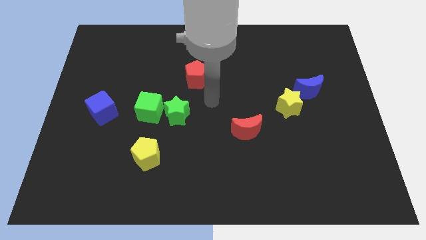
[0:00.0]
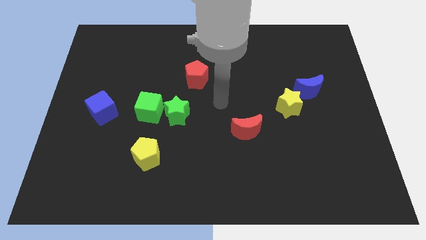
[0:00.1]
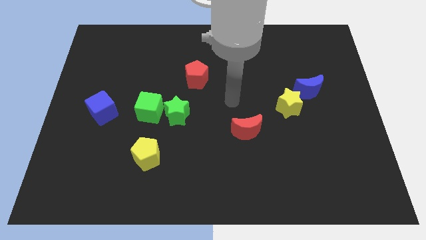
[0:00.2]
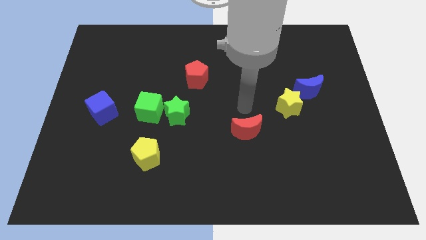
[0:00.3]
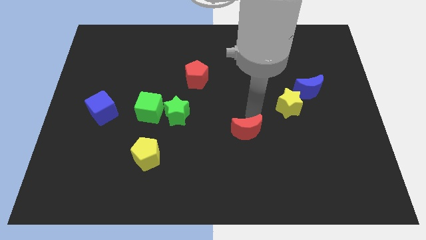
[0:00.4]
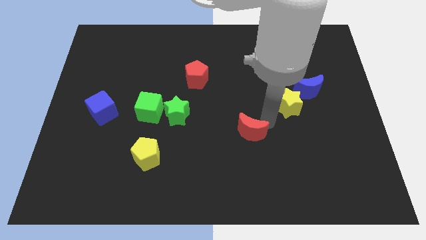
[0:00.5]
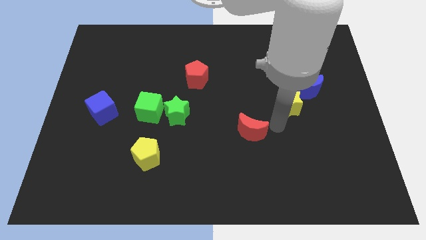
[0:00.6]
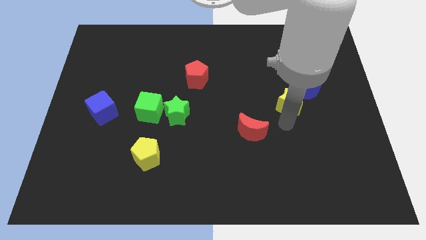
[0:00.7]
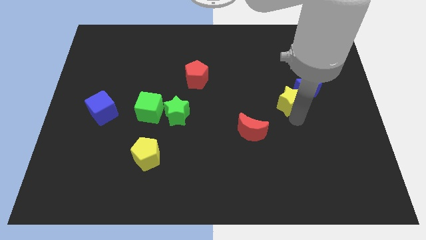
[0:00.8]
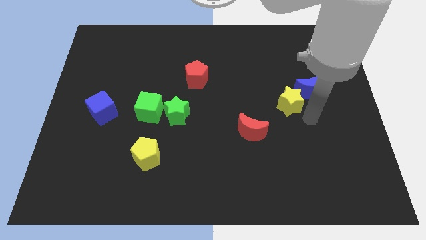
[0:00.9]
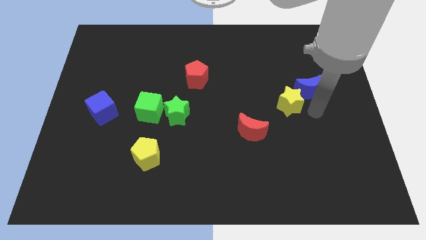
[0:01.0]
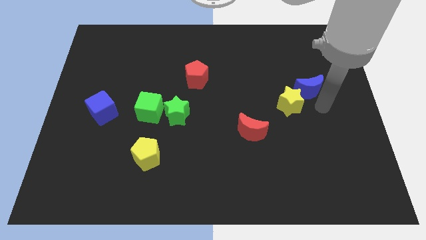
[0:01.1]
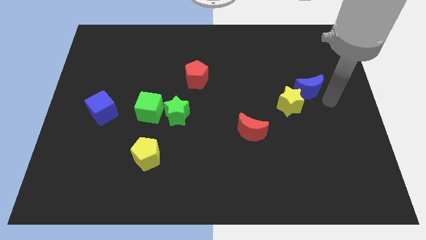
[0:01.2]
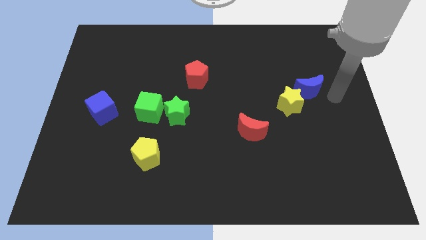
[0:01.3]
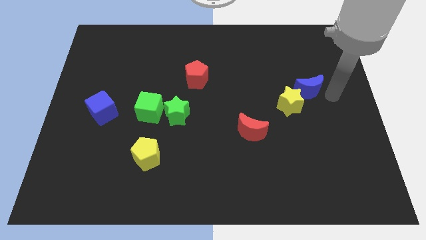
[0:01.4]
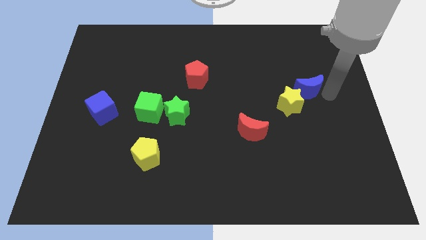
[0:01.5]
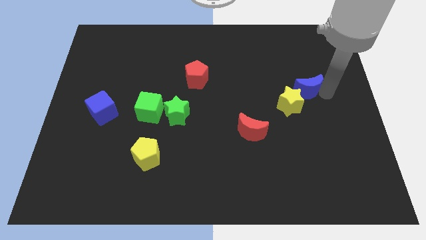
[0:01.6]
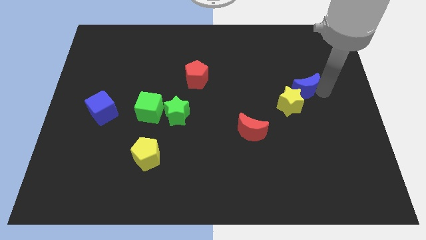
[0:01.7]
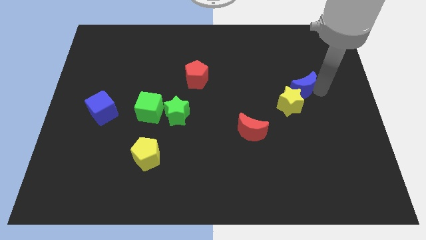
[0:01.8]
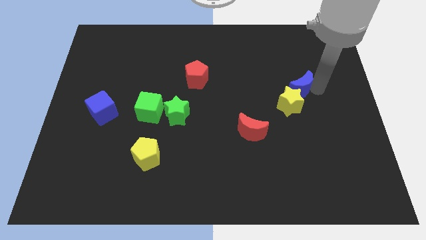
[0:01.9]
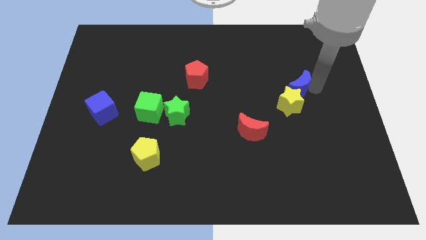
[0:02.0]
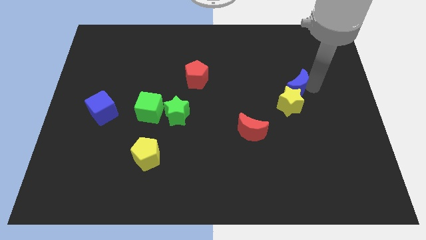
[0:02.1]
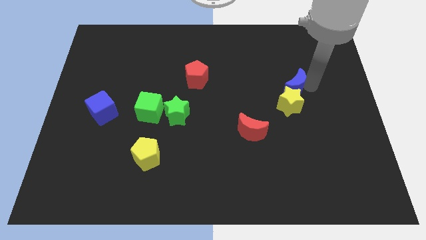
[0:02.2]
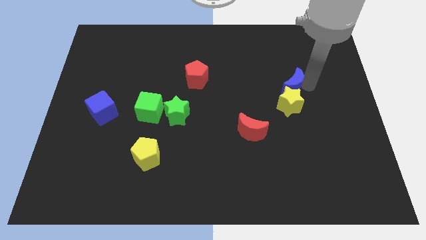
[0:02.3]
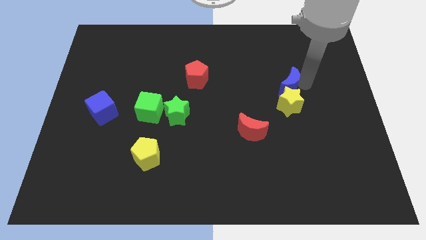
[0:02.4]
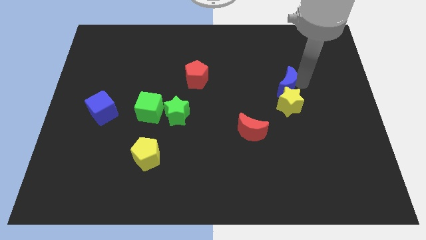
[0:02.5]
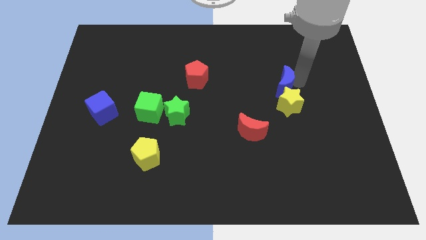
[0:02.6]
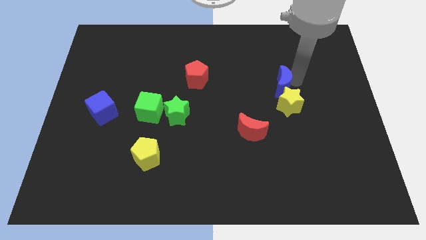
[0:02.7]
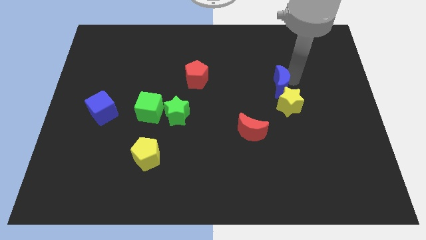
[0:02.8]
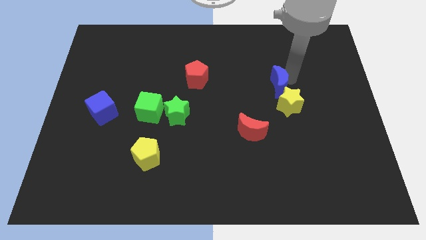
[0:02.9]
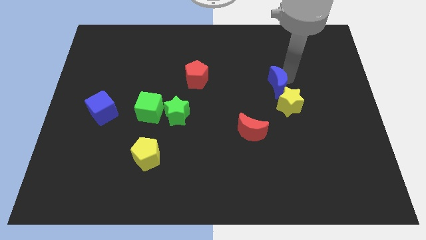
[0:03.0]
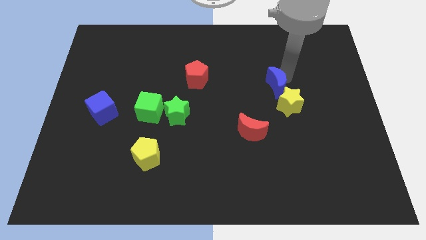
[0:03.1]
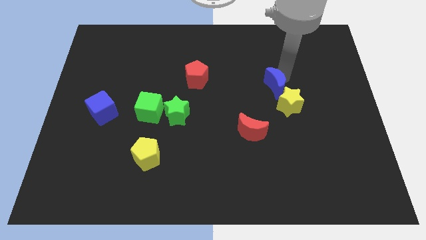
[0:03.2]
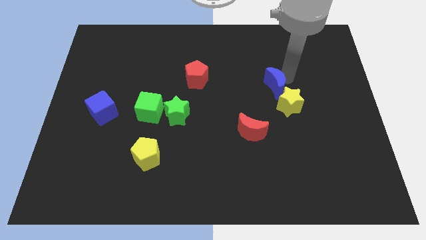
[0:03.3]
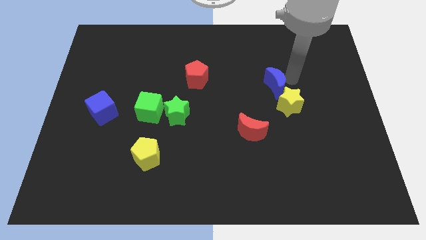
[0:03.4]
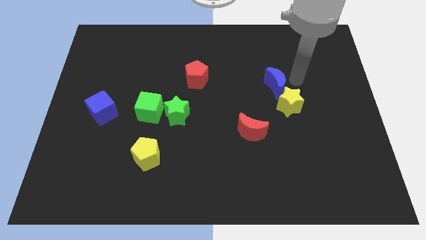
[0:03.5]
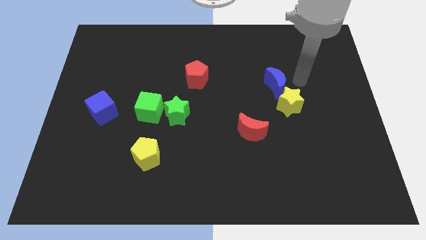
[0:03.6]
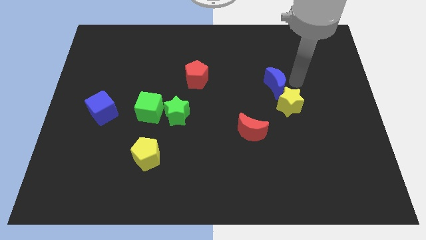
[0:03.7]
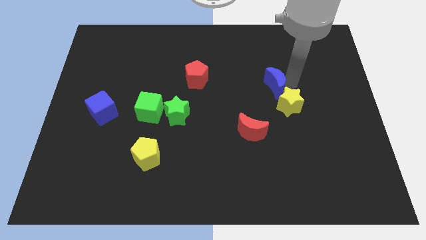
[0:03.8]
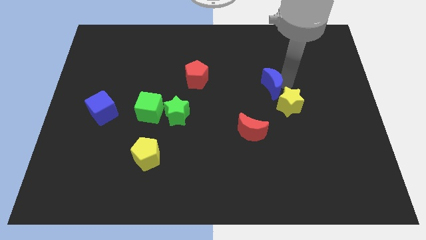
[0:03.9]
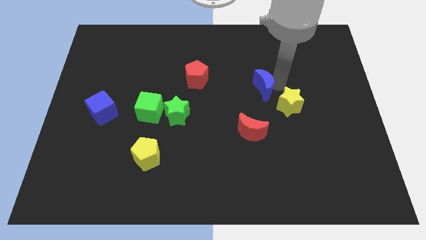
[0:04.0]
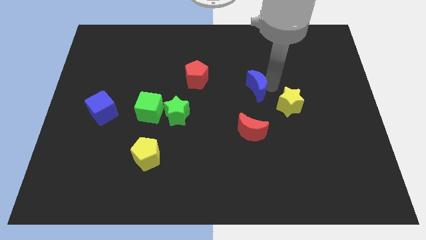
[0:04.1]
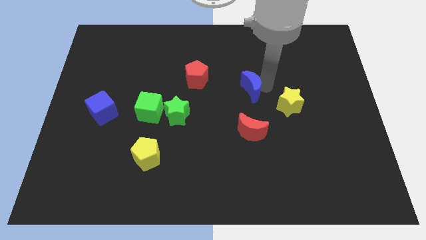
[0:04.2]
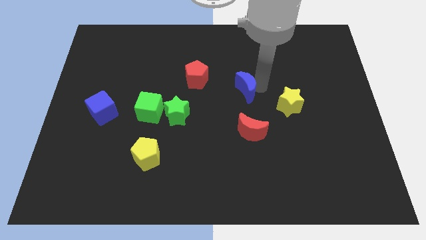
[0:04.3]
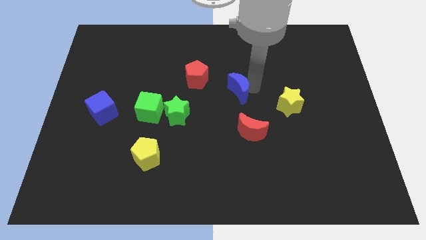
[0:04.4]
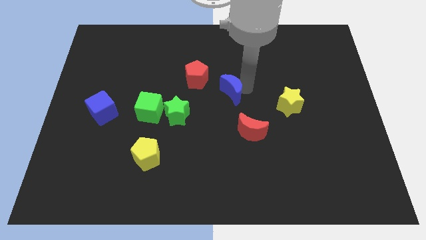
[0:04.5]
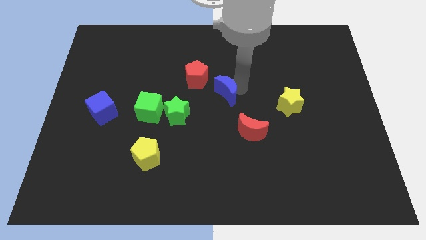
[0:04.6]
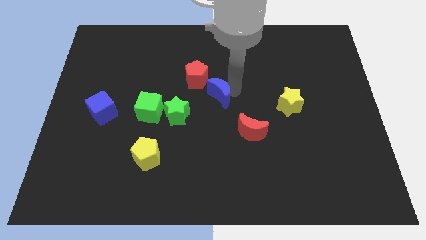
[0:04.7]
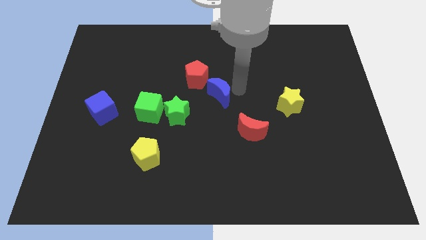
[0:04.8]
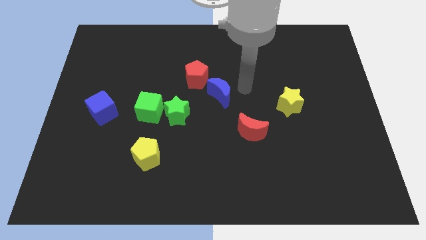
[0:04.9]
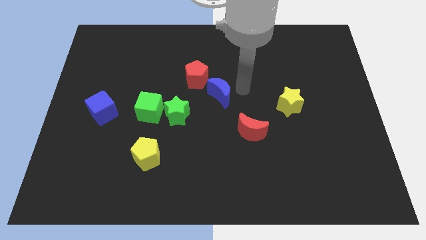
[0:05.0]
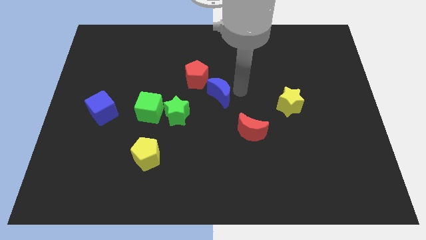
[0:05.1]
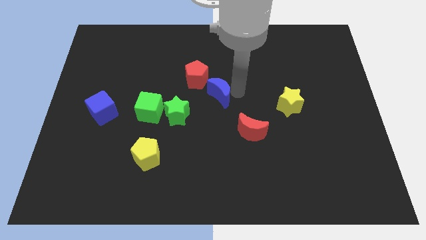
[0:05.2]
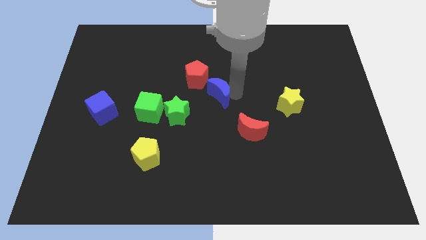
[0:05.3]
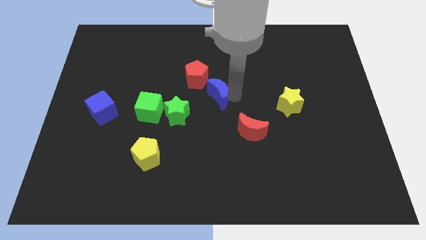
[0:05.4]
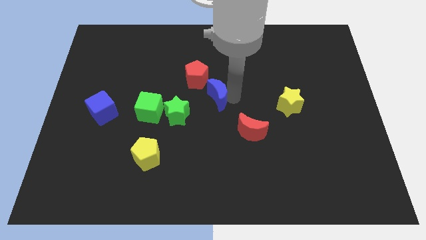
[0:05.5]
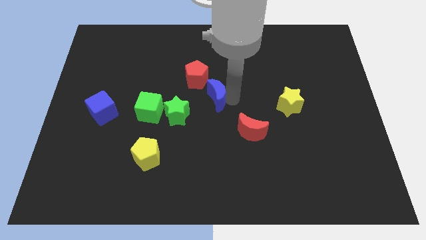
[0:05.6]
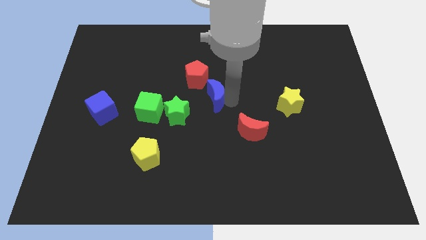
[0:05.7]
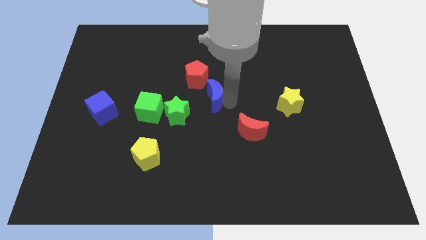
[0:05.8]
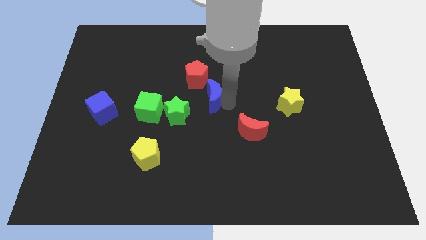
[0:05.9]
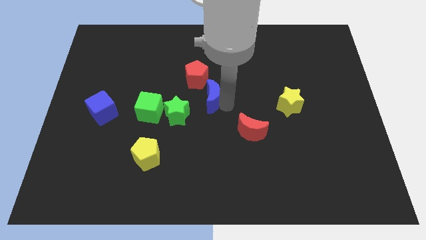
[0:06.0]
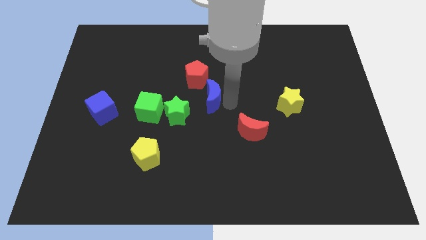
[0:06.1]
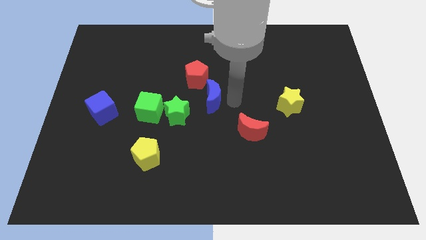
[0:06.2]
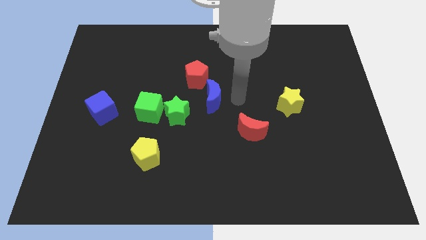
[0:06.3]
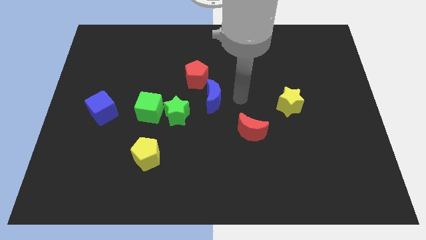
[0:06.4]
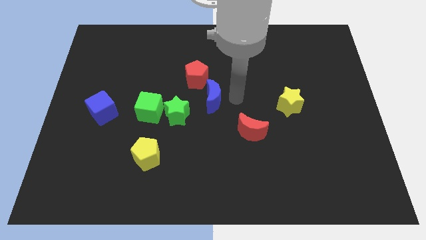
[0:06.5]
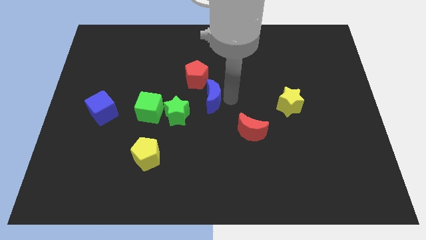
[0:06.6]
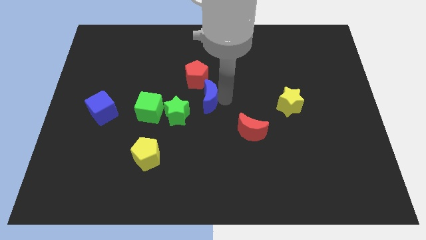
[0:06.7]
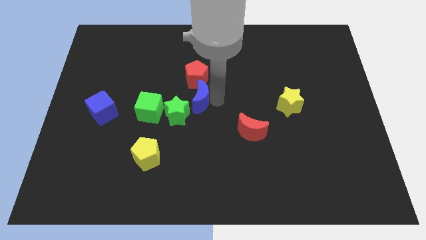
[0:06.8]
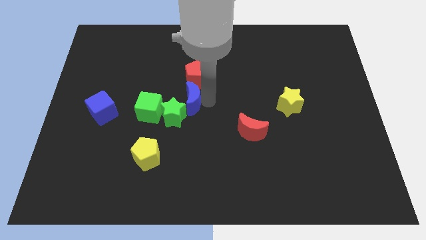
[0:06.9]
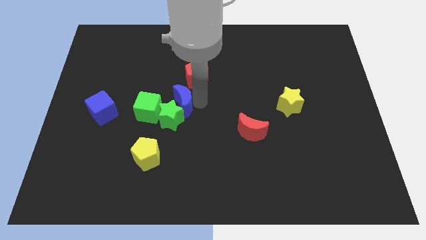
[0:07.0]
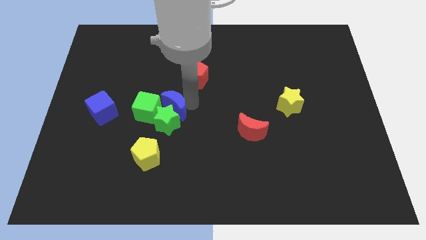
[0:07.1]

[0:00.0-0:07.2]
push the blue moon diagonally up and to the left of the green star

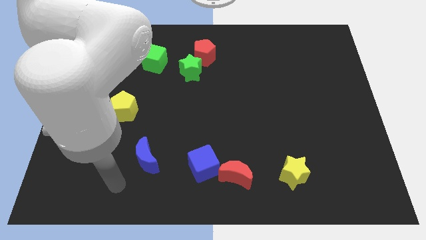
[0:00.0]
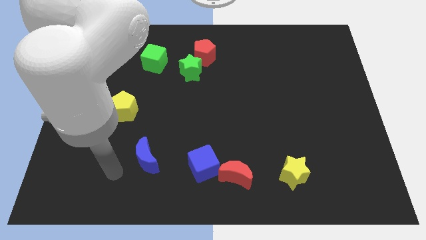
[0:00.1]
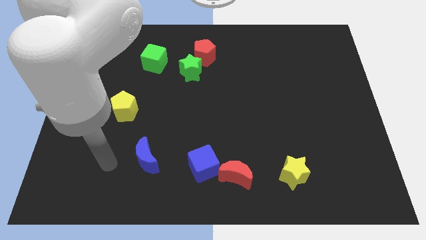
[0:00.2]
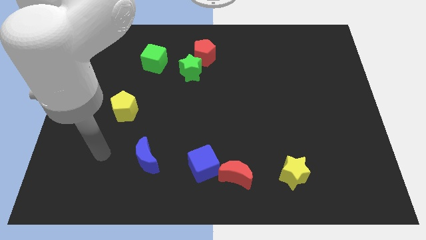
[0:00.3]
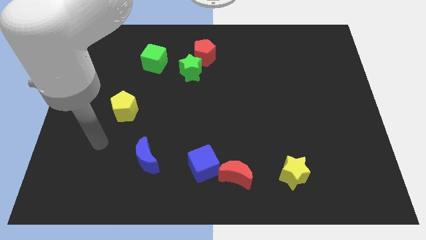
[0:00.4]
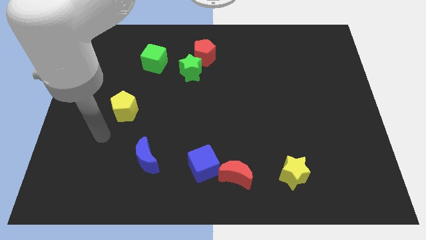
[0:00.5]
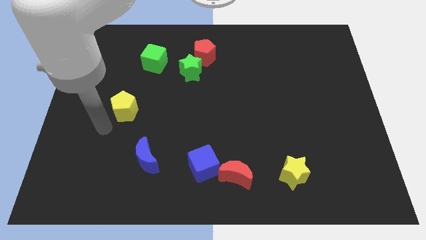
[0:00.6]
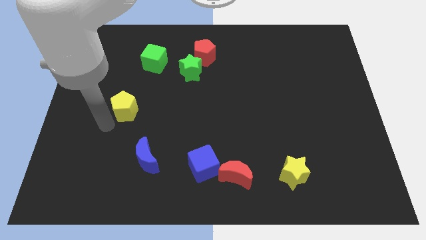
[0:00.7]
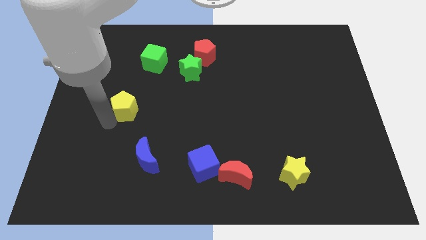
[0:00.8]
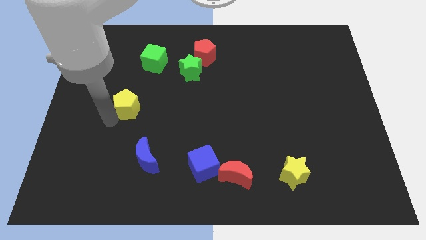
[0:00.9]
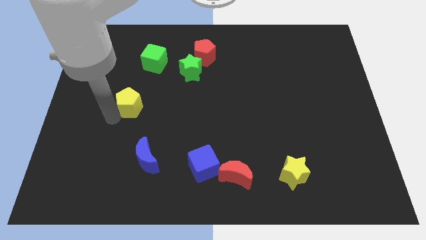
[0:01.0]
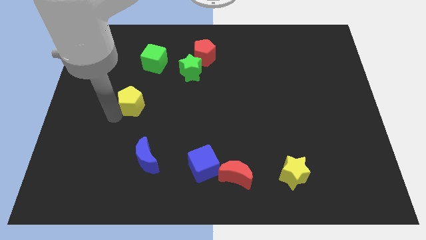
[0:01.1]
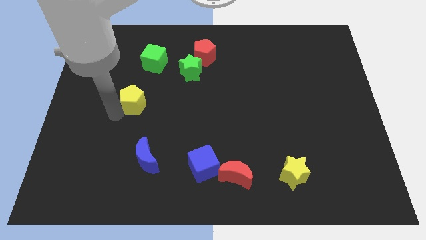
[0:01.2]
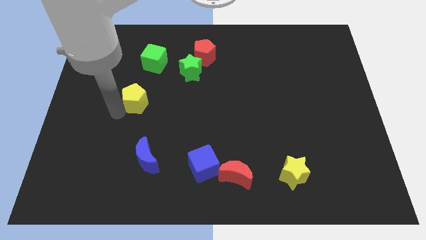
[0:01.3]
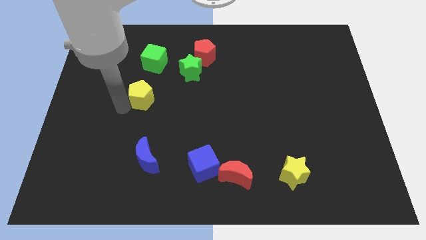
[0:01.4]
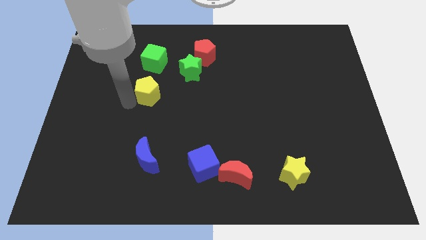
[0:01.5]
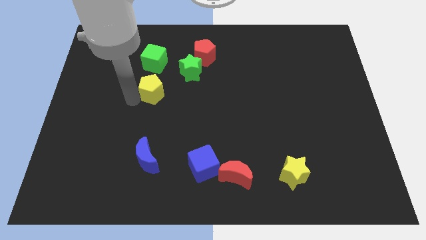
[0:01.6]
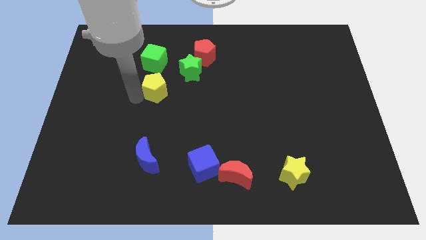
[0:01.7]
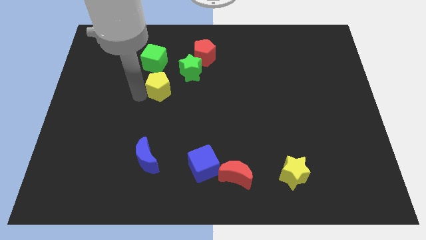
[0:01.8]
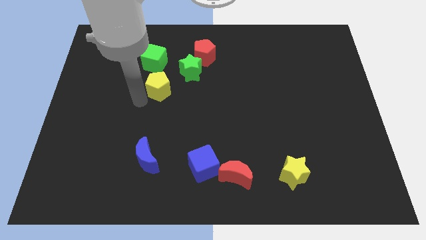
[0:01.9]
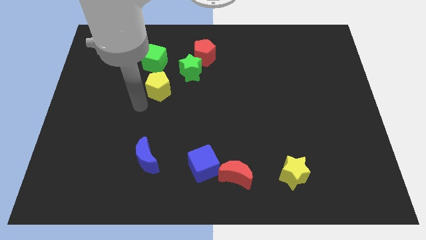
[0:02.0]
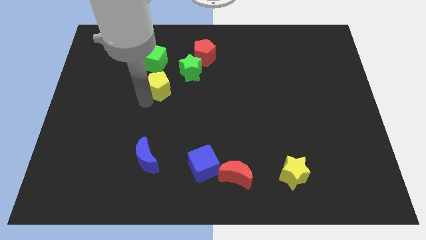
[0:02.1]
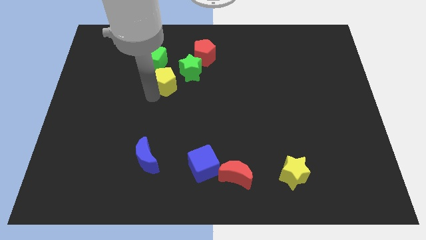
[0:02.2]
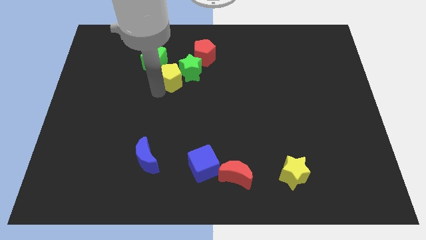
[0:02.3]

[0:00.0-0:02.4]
put the yellow pentagon diagonally down and to the left of the red pentagon
